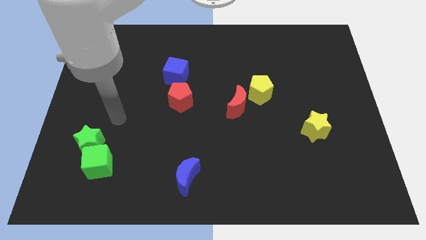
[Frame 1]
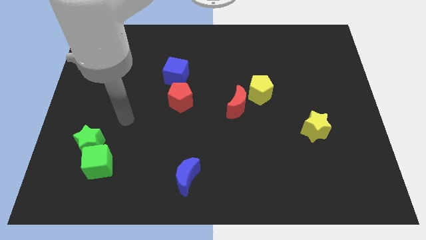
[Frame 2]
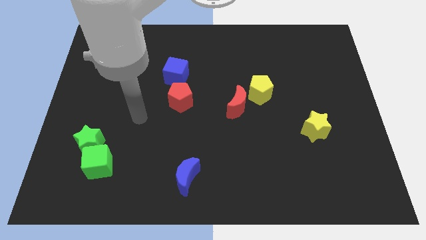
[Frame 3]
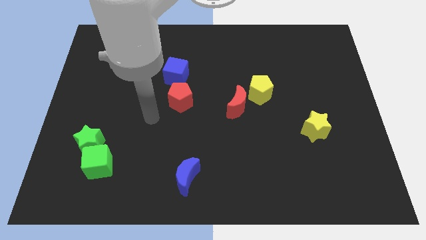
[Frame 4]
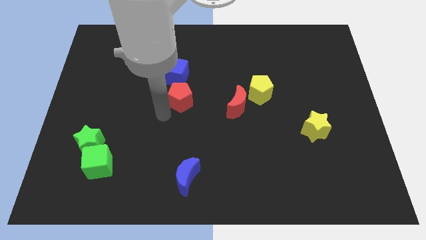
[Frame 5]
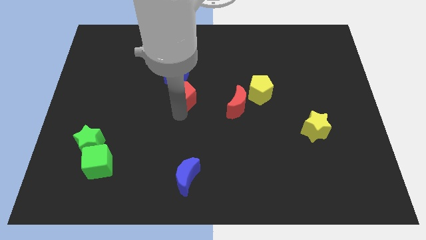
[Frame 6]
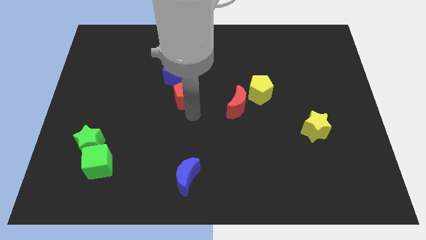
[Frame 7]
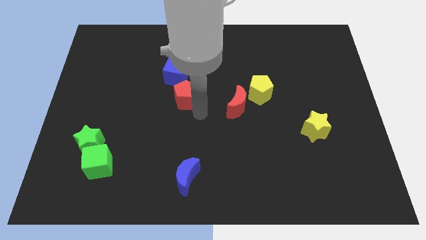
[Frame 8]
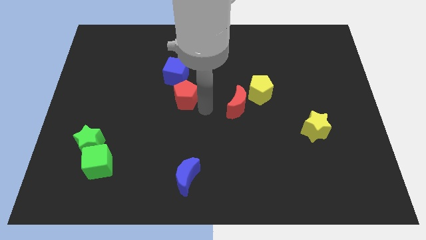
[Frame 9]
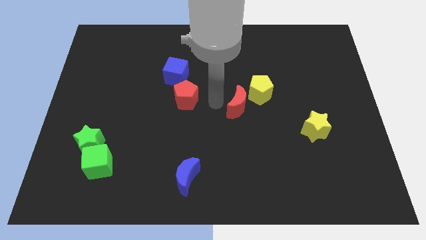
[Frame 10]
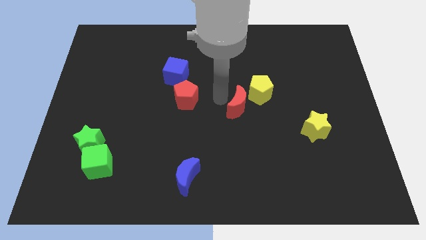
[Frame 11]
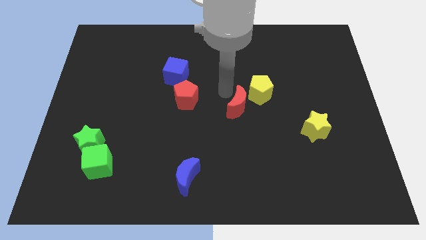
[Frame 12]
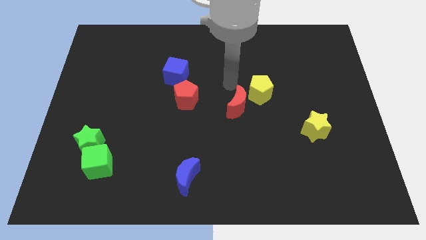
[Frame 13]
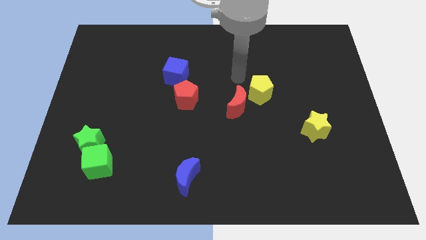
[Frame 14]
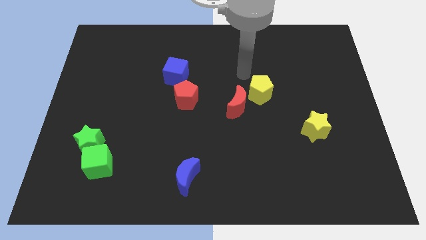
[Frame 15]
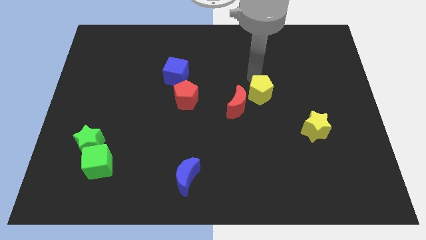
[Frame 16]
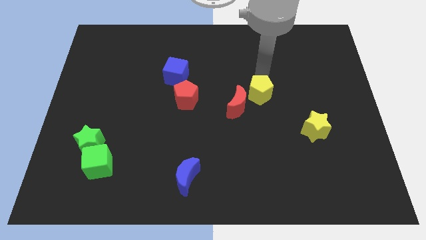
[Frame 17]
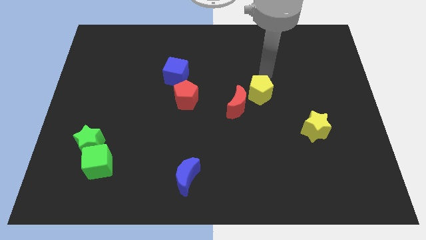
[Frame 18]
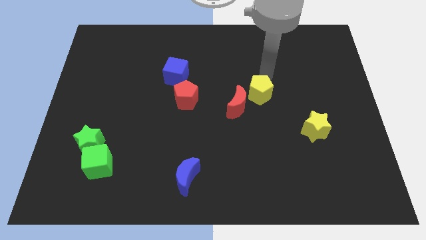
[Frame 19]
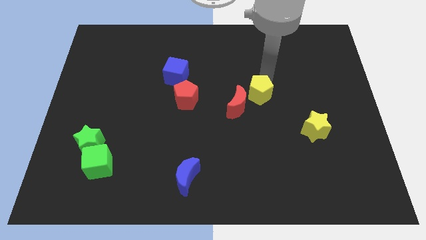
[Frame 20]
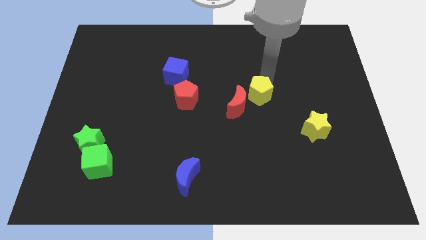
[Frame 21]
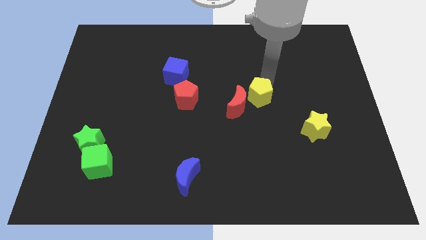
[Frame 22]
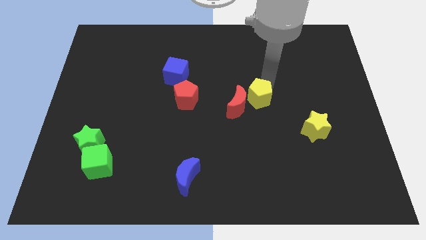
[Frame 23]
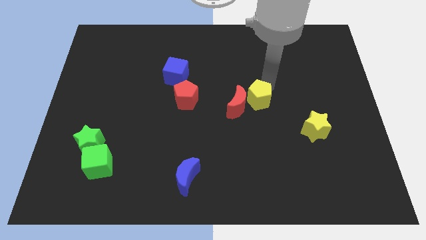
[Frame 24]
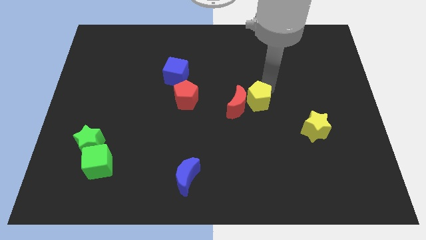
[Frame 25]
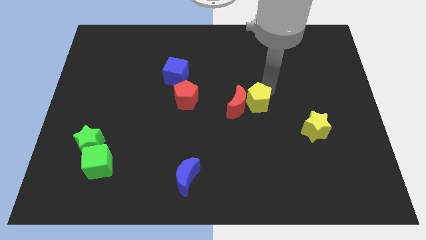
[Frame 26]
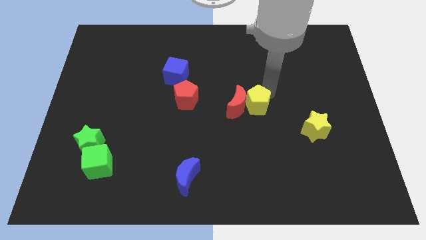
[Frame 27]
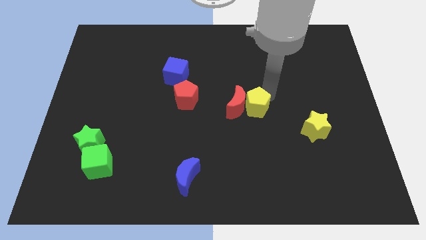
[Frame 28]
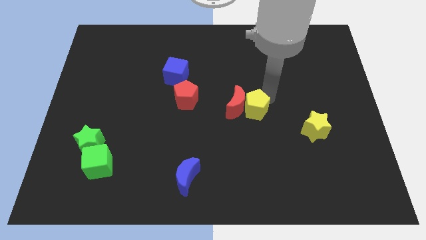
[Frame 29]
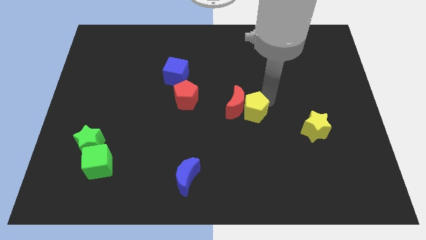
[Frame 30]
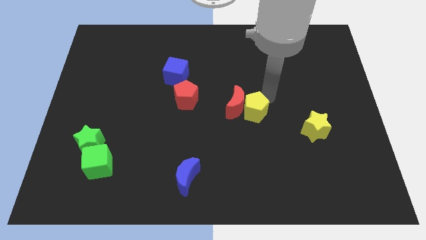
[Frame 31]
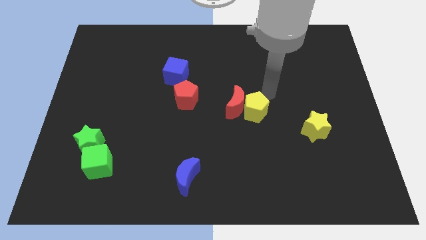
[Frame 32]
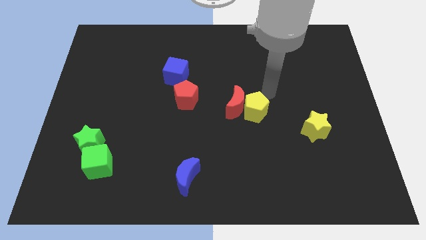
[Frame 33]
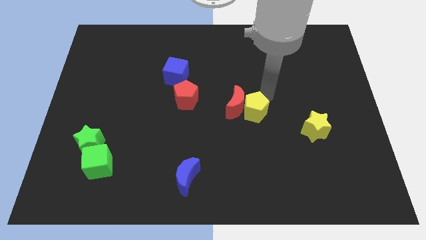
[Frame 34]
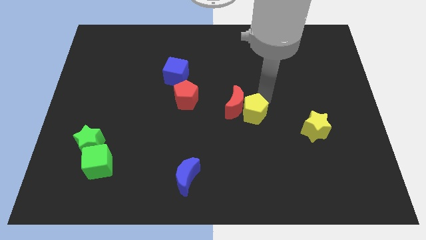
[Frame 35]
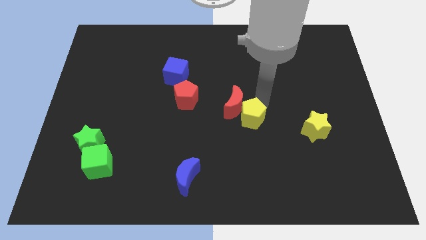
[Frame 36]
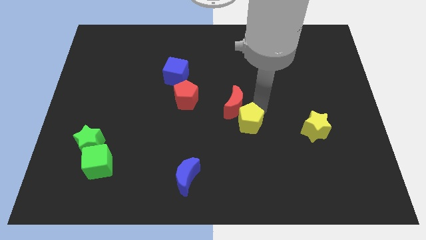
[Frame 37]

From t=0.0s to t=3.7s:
move the yellow pentagon a bit downwards and left diagonally

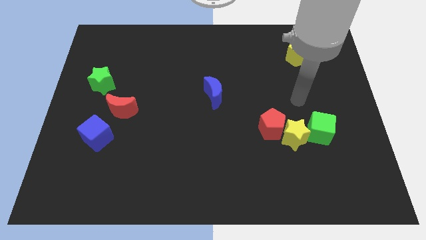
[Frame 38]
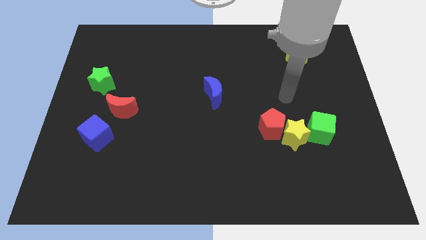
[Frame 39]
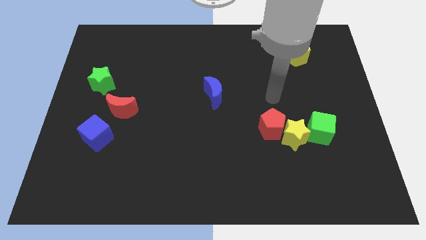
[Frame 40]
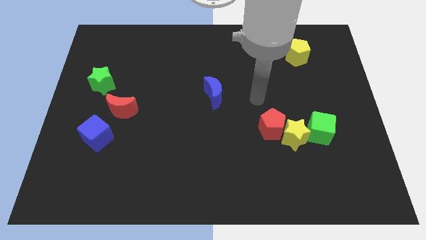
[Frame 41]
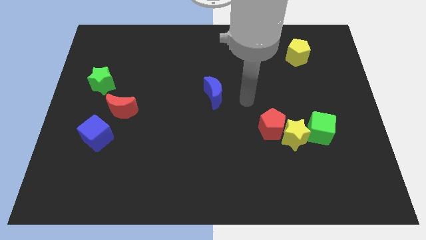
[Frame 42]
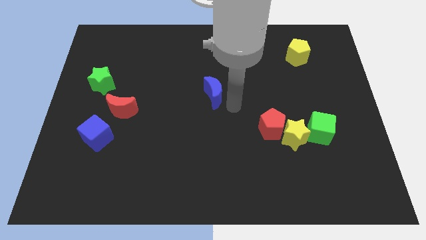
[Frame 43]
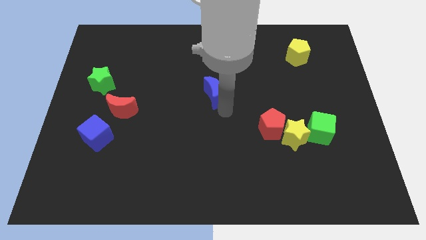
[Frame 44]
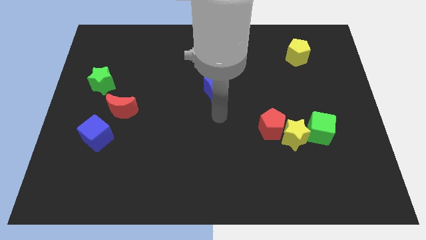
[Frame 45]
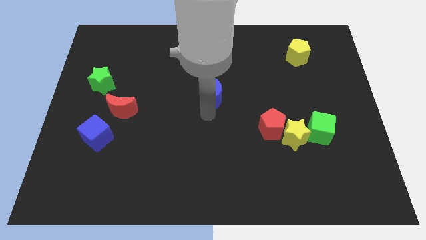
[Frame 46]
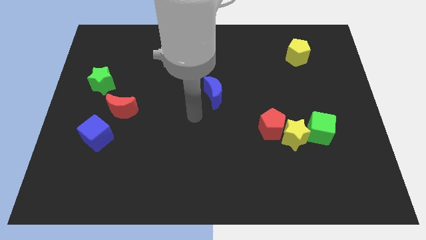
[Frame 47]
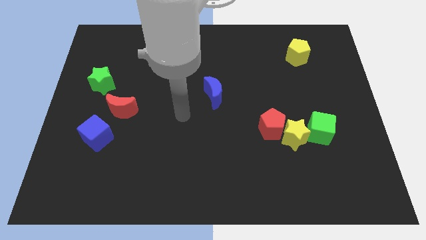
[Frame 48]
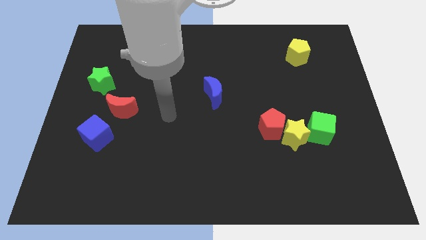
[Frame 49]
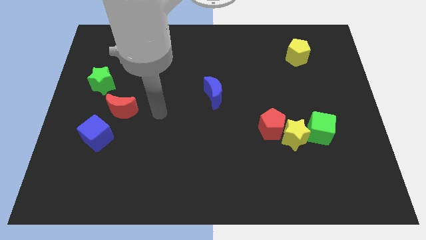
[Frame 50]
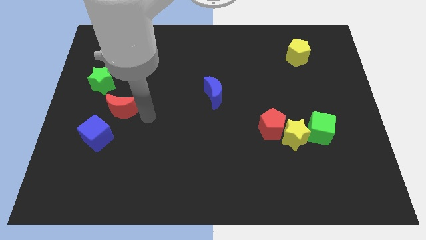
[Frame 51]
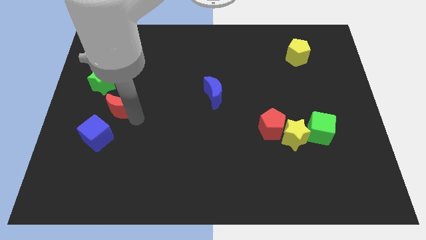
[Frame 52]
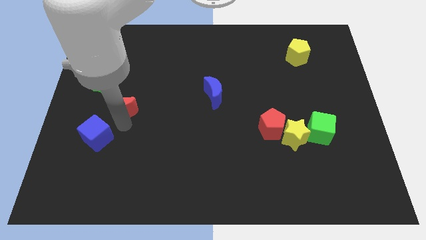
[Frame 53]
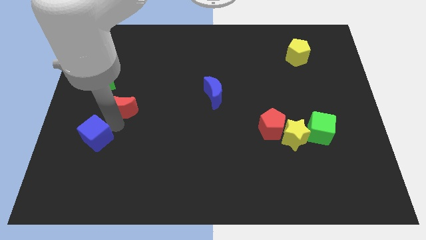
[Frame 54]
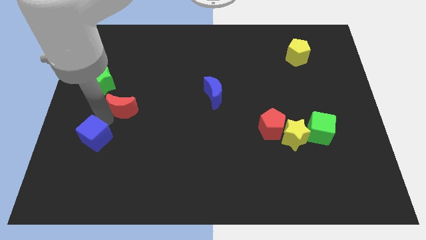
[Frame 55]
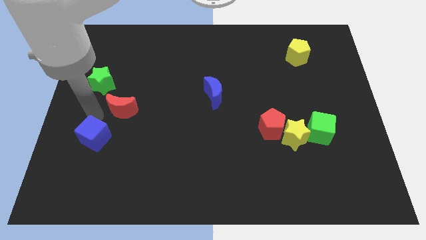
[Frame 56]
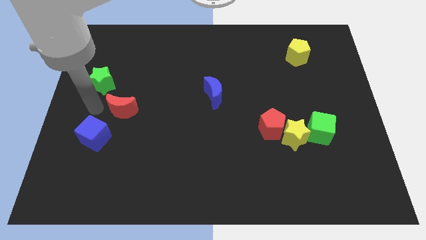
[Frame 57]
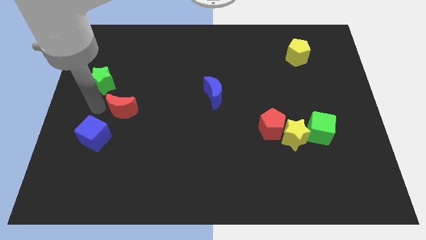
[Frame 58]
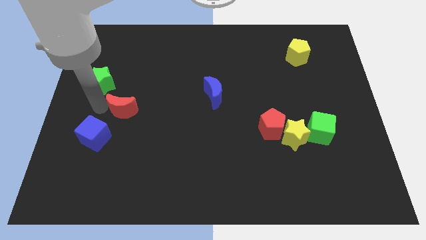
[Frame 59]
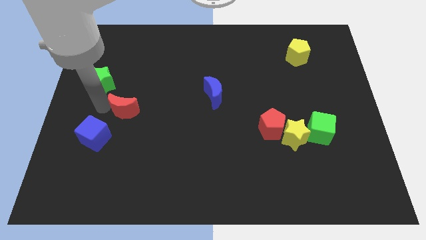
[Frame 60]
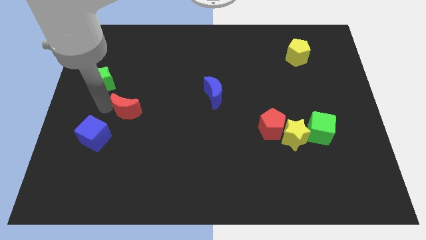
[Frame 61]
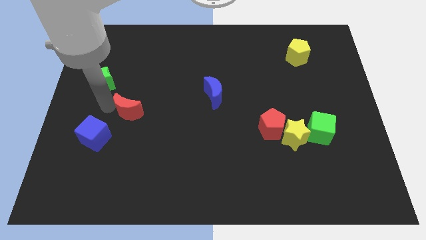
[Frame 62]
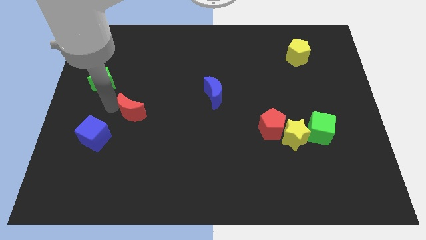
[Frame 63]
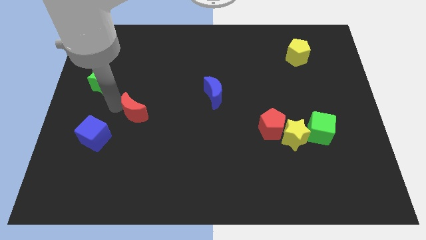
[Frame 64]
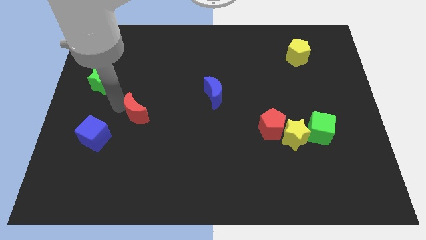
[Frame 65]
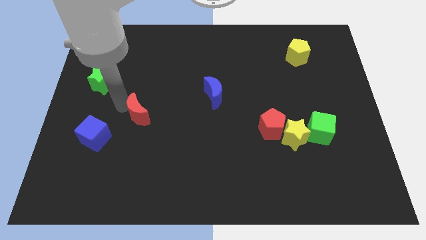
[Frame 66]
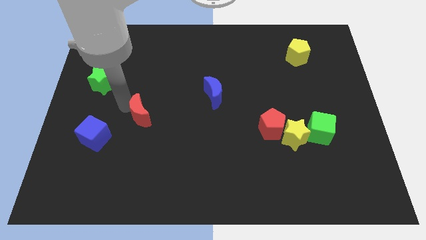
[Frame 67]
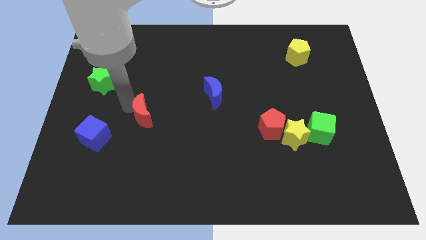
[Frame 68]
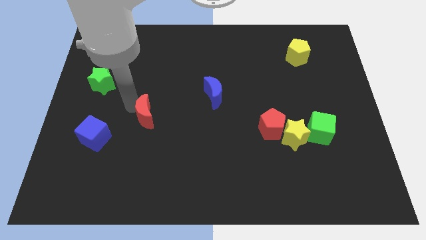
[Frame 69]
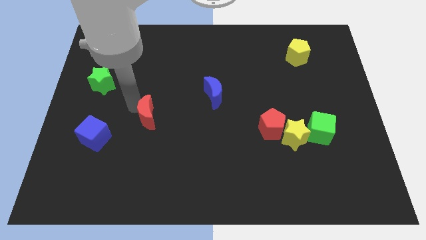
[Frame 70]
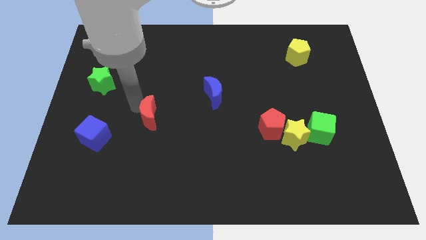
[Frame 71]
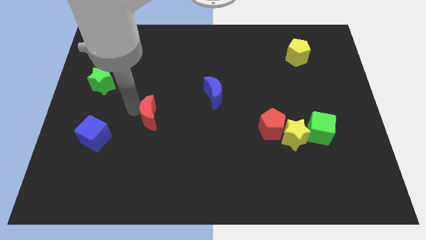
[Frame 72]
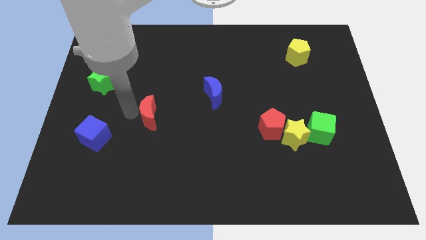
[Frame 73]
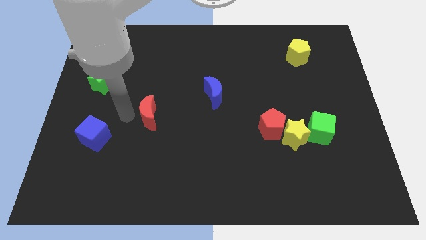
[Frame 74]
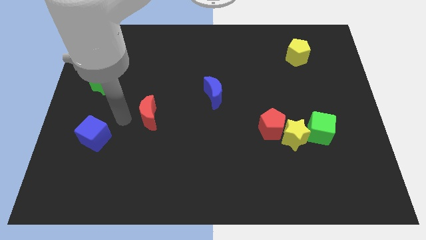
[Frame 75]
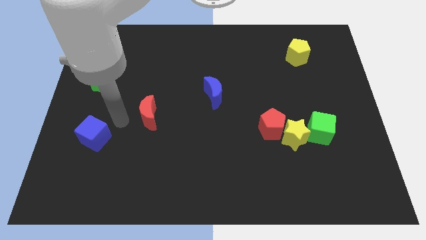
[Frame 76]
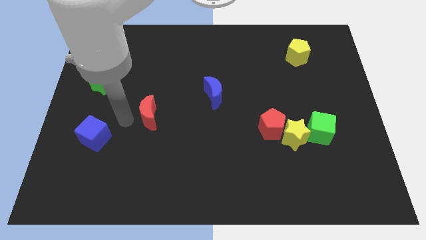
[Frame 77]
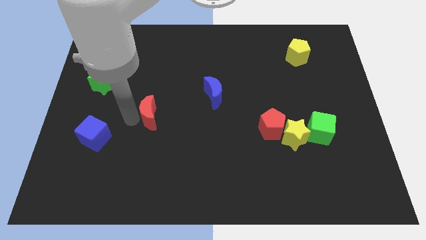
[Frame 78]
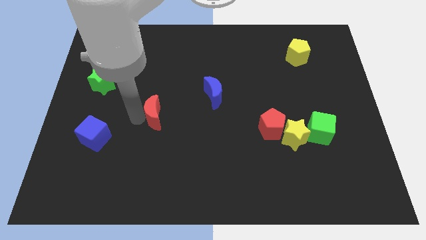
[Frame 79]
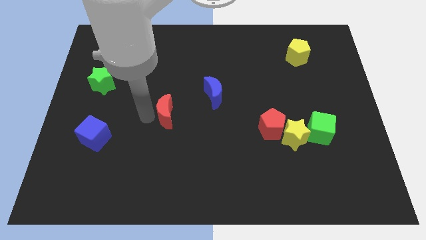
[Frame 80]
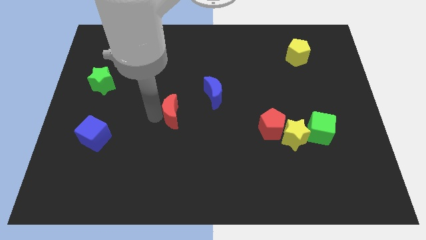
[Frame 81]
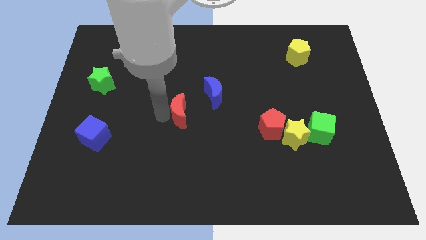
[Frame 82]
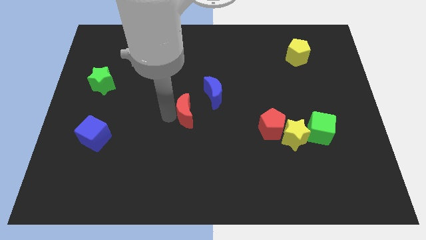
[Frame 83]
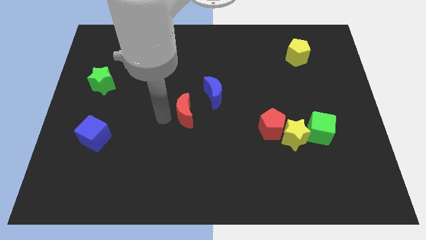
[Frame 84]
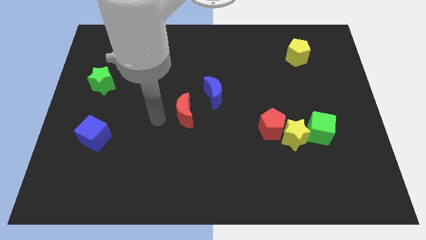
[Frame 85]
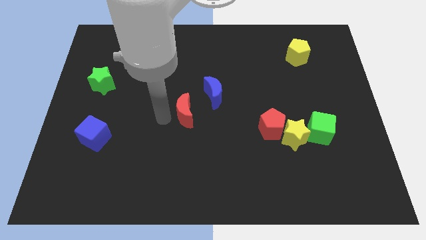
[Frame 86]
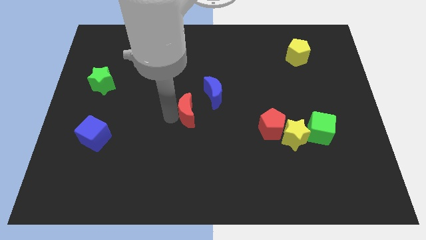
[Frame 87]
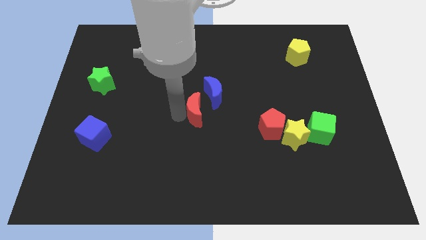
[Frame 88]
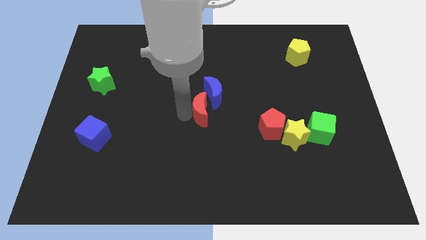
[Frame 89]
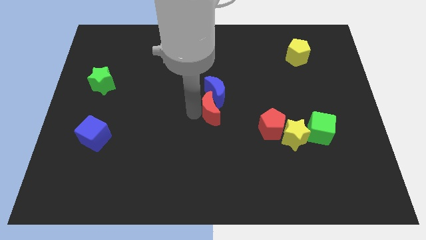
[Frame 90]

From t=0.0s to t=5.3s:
move the red moon right
